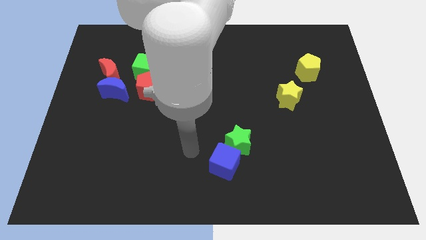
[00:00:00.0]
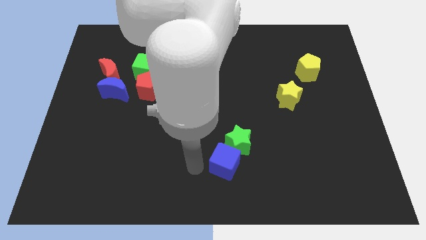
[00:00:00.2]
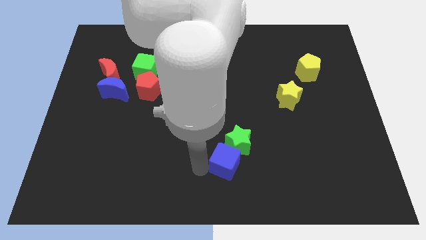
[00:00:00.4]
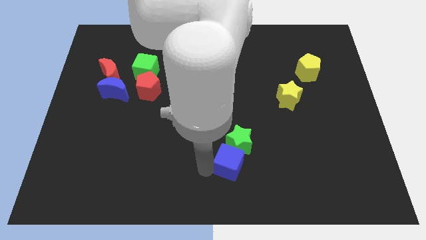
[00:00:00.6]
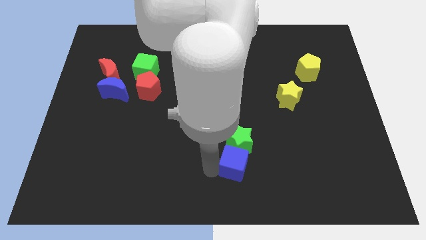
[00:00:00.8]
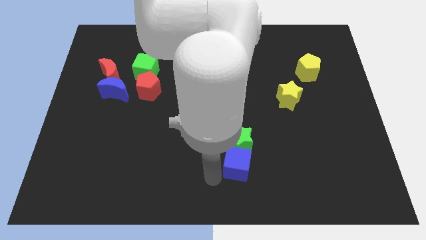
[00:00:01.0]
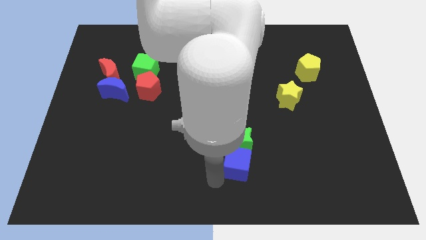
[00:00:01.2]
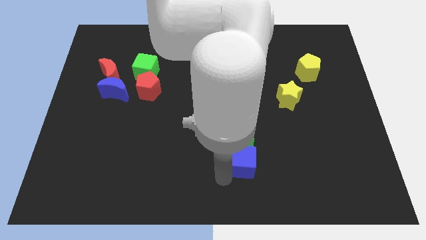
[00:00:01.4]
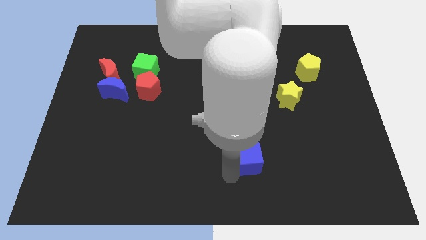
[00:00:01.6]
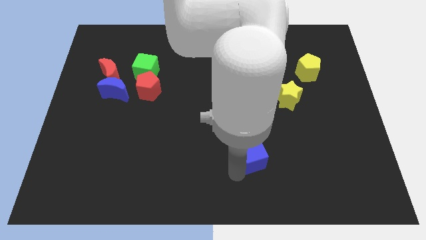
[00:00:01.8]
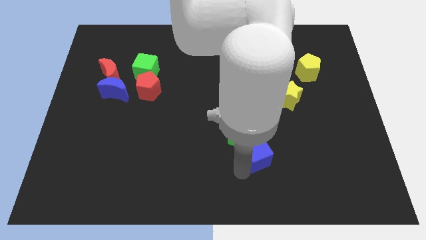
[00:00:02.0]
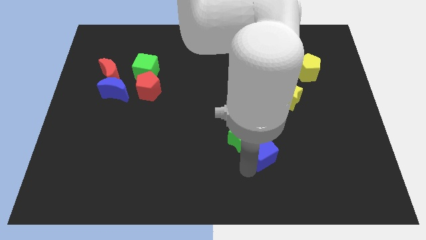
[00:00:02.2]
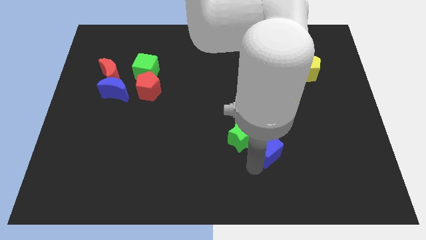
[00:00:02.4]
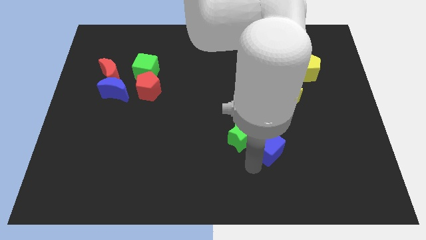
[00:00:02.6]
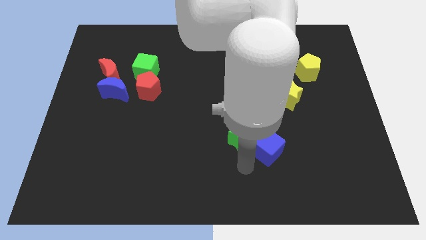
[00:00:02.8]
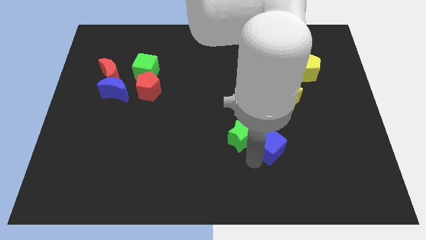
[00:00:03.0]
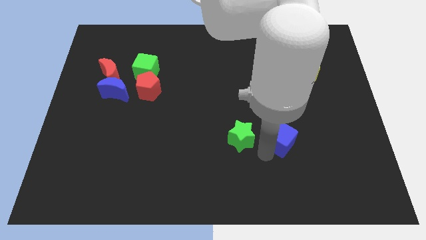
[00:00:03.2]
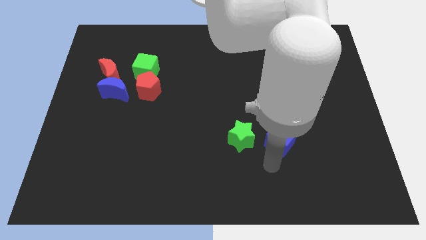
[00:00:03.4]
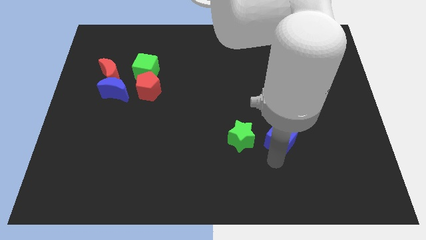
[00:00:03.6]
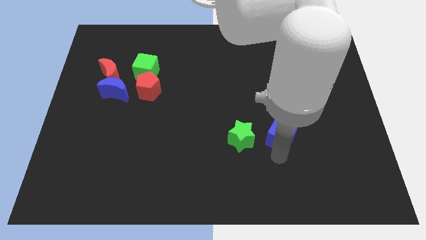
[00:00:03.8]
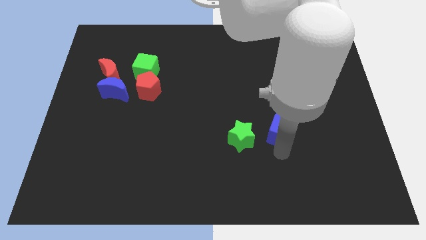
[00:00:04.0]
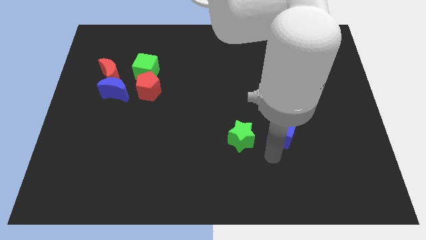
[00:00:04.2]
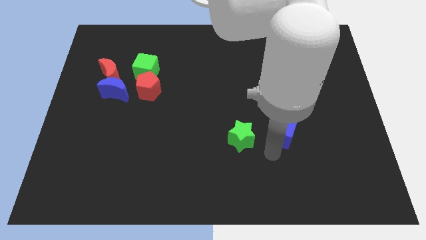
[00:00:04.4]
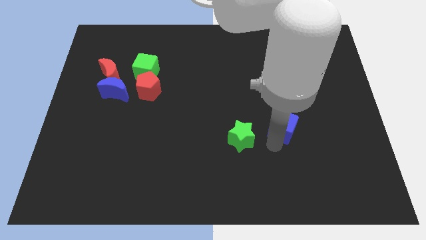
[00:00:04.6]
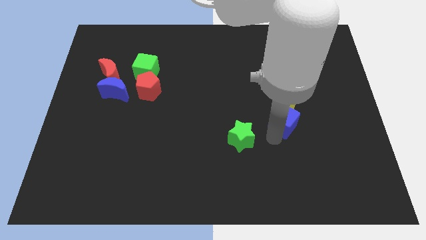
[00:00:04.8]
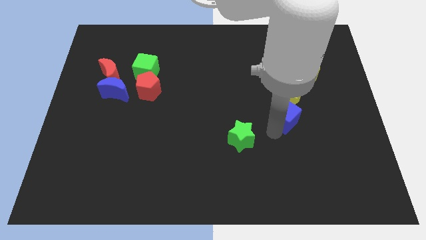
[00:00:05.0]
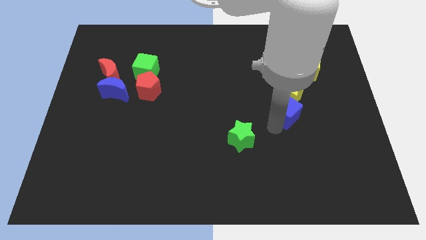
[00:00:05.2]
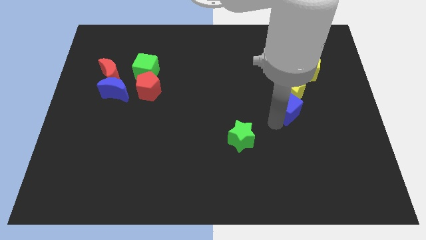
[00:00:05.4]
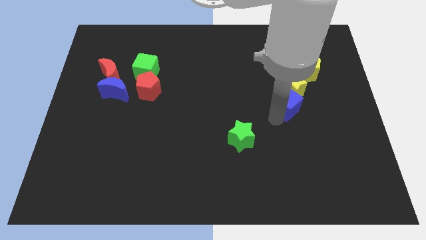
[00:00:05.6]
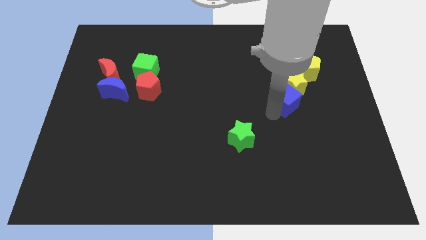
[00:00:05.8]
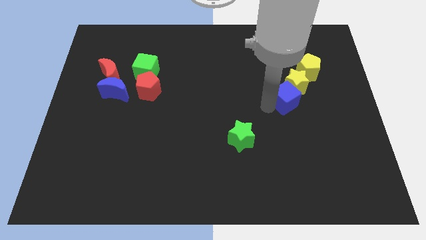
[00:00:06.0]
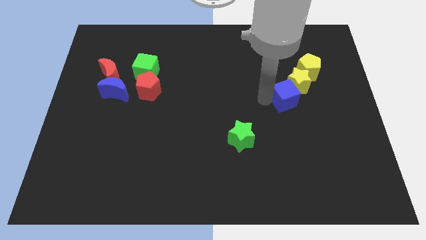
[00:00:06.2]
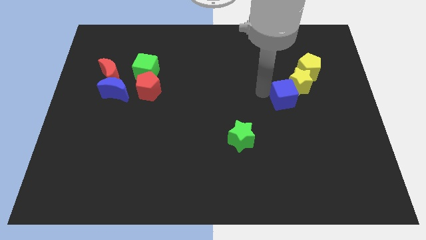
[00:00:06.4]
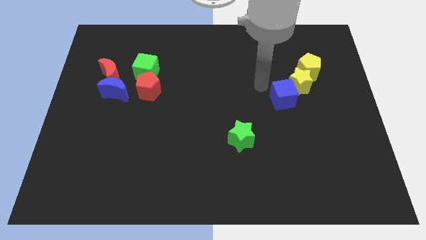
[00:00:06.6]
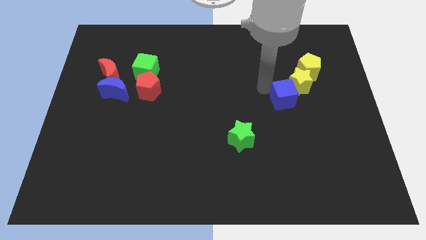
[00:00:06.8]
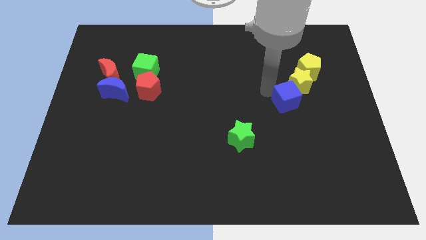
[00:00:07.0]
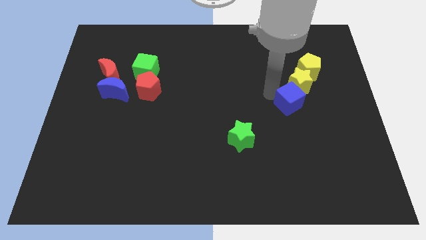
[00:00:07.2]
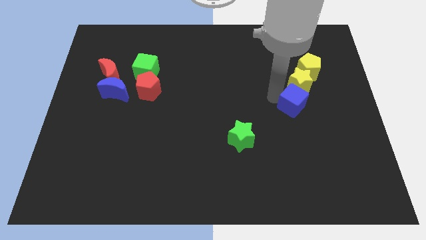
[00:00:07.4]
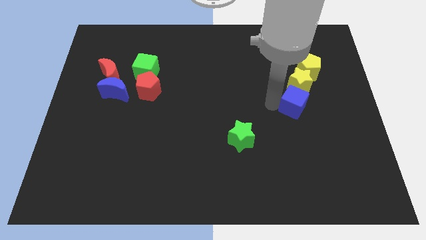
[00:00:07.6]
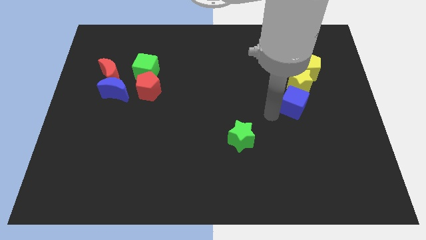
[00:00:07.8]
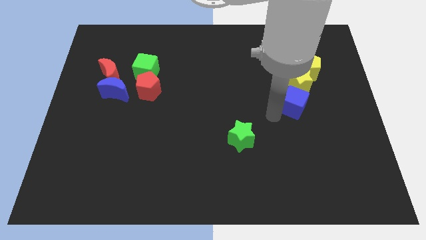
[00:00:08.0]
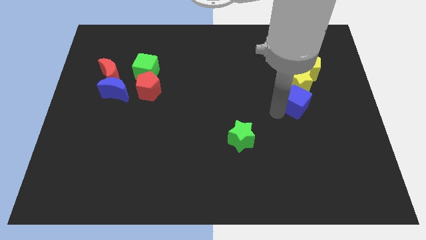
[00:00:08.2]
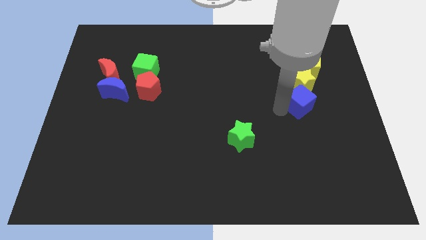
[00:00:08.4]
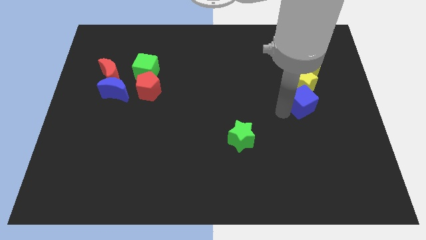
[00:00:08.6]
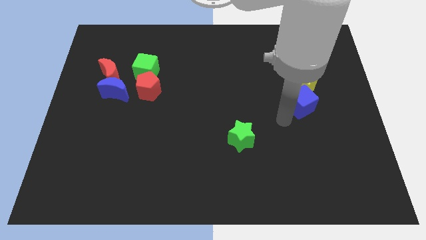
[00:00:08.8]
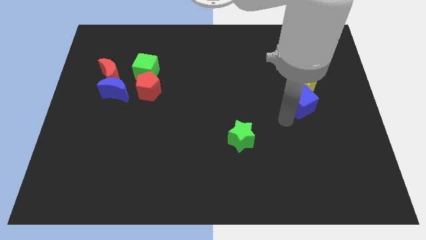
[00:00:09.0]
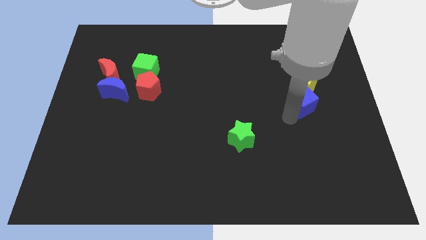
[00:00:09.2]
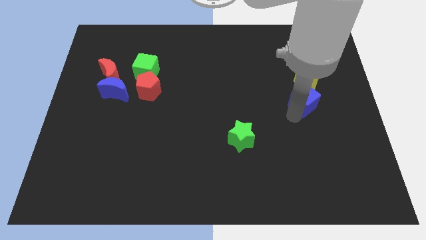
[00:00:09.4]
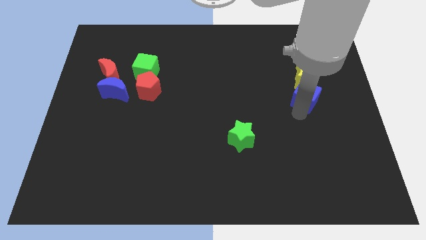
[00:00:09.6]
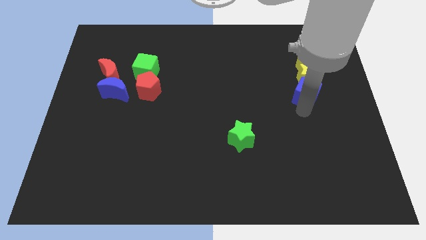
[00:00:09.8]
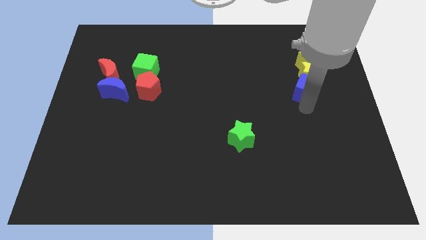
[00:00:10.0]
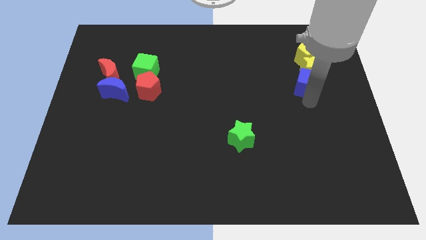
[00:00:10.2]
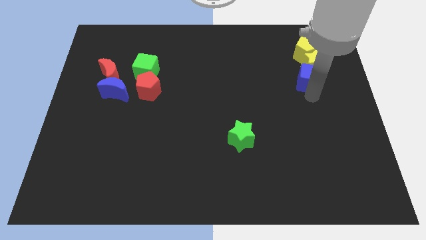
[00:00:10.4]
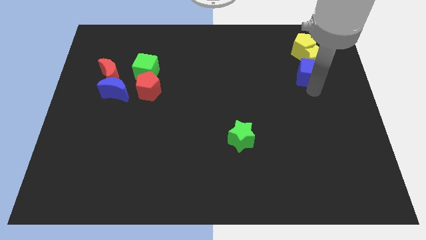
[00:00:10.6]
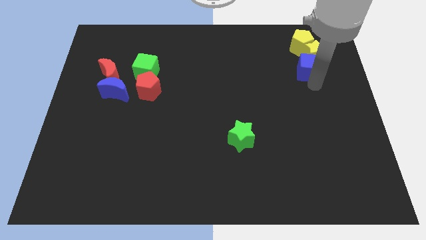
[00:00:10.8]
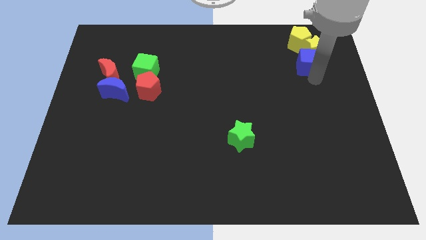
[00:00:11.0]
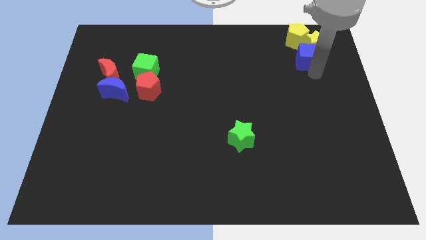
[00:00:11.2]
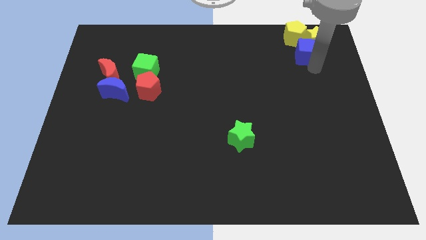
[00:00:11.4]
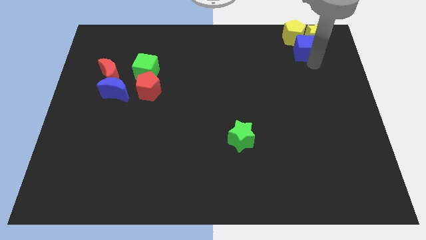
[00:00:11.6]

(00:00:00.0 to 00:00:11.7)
push the blue cube to the yellow pentagon

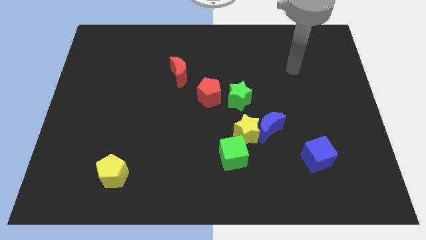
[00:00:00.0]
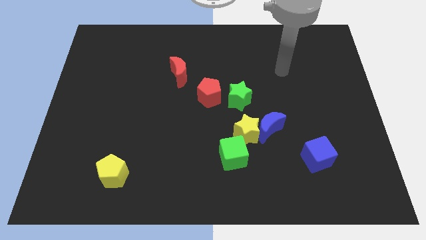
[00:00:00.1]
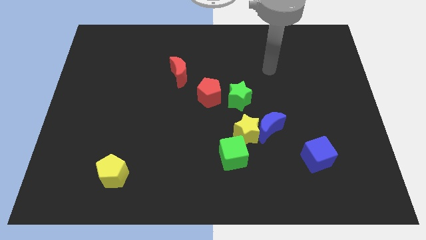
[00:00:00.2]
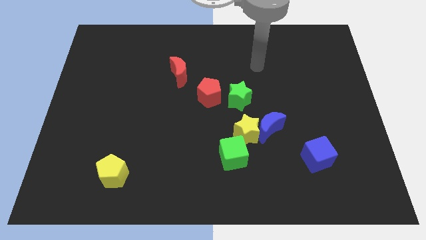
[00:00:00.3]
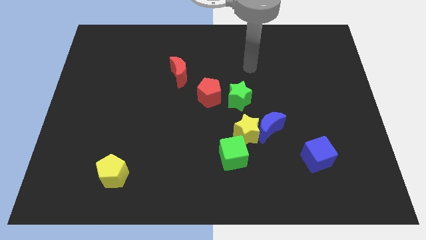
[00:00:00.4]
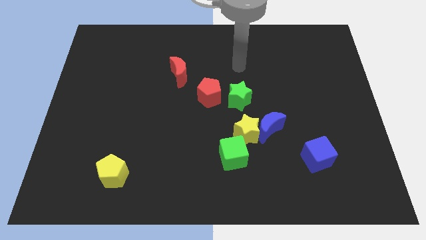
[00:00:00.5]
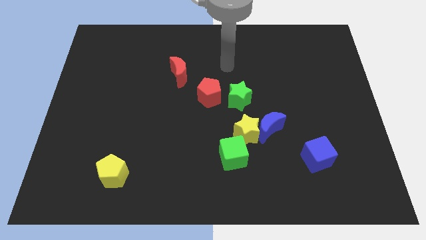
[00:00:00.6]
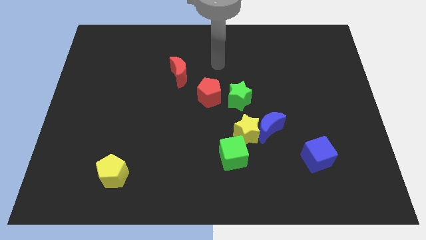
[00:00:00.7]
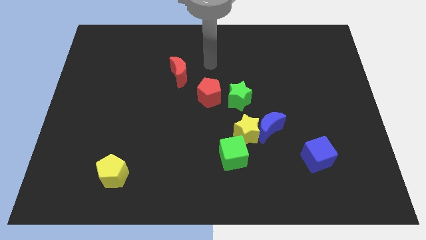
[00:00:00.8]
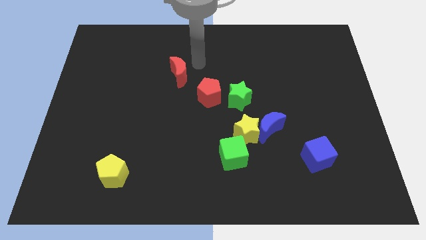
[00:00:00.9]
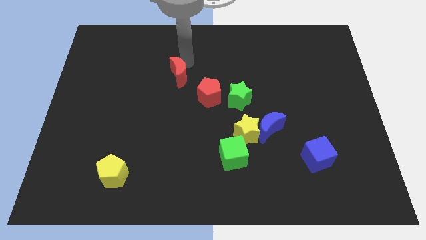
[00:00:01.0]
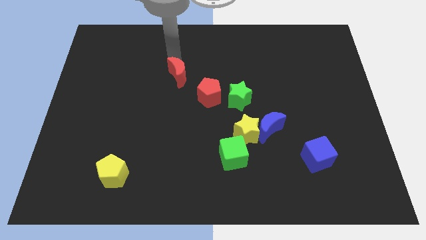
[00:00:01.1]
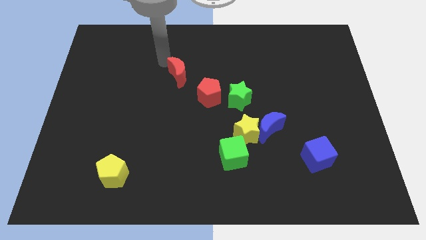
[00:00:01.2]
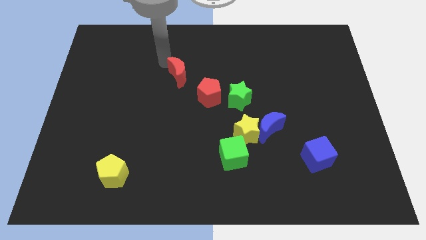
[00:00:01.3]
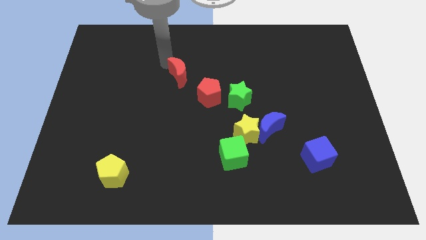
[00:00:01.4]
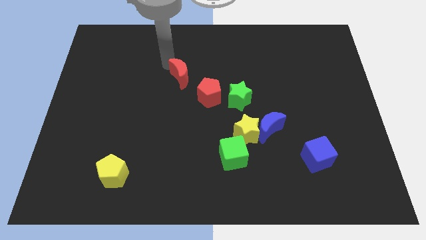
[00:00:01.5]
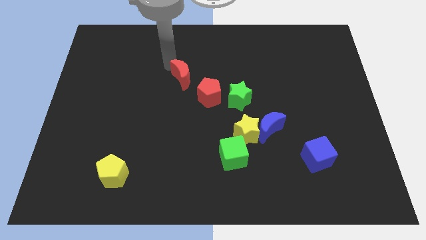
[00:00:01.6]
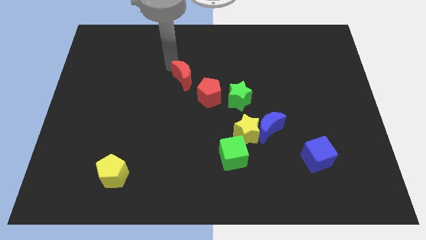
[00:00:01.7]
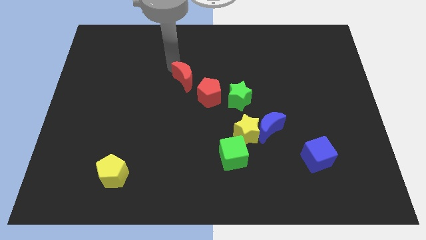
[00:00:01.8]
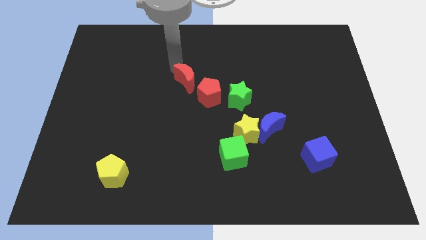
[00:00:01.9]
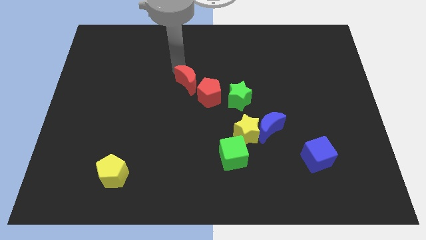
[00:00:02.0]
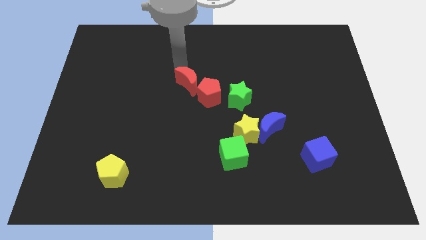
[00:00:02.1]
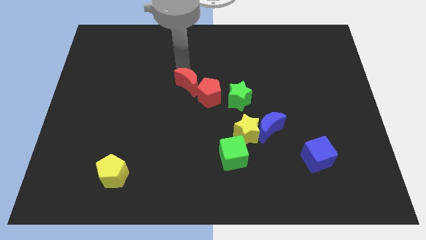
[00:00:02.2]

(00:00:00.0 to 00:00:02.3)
move the red moon close to the red pentagon
